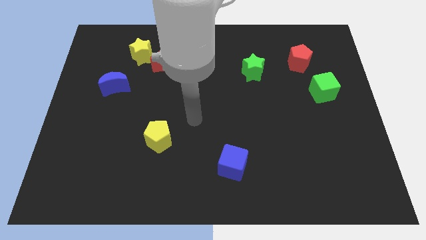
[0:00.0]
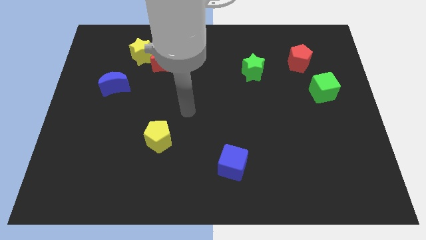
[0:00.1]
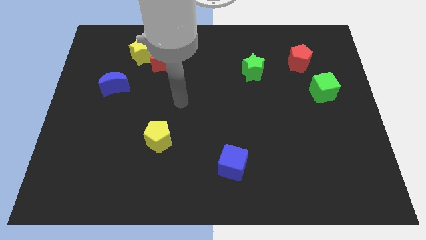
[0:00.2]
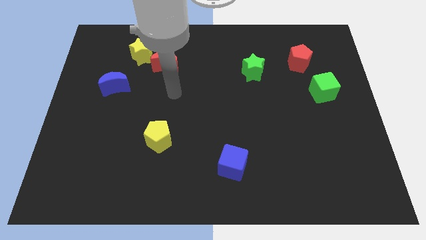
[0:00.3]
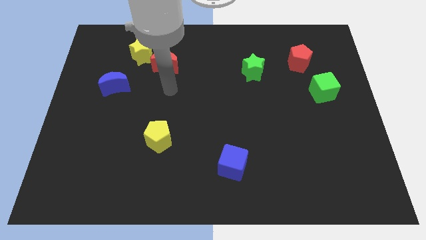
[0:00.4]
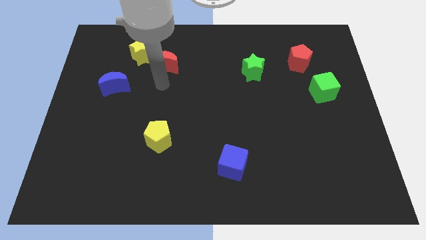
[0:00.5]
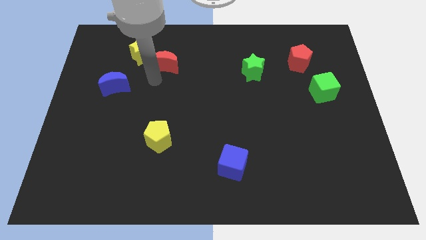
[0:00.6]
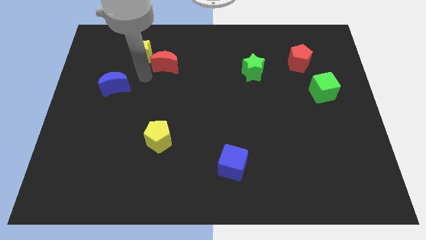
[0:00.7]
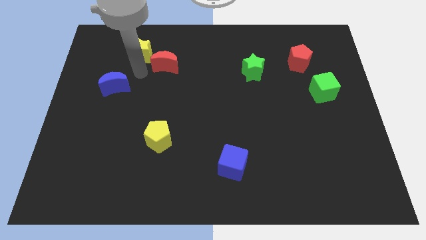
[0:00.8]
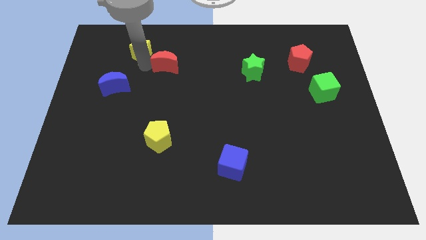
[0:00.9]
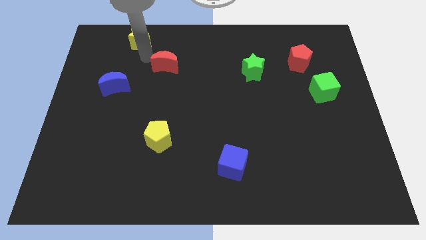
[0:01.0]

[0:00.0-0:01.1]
move the red moon away from the yellow star

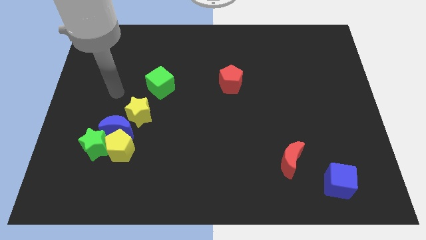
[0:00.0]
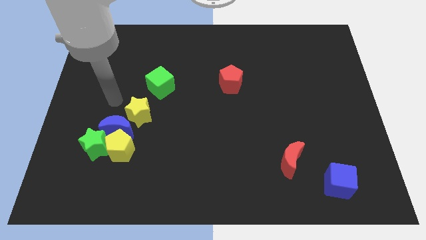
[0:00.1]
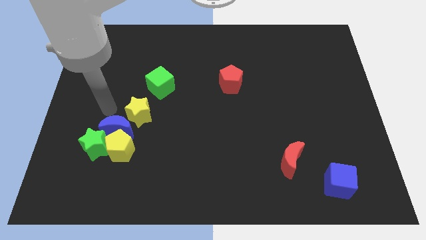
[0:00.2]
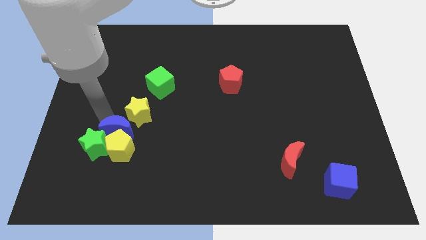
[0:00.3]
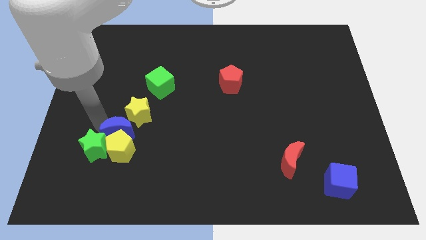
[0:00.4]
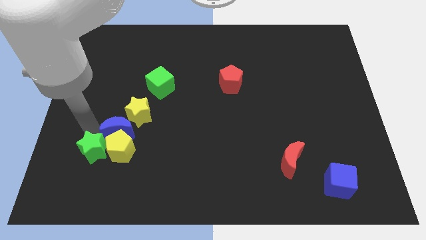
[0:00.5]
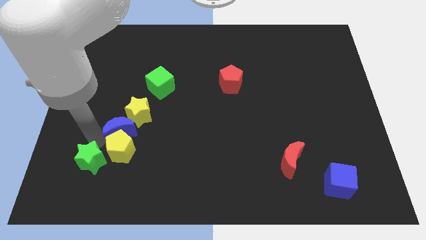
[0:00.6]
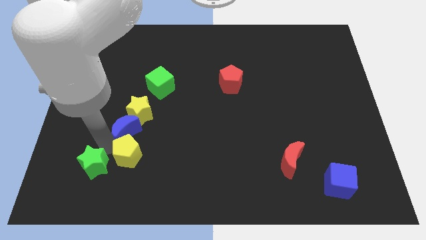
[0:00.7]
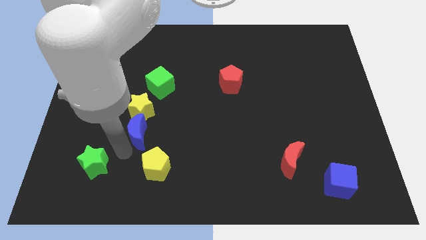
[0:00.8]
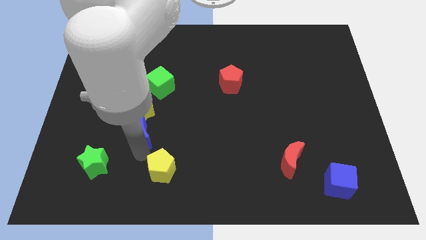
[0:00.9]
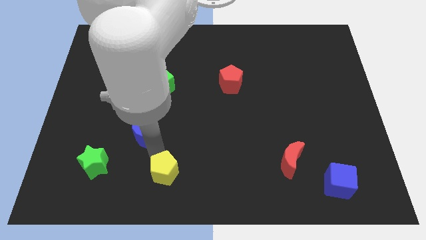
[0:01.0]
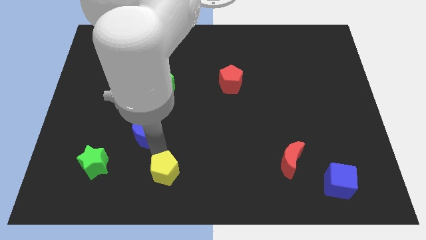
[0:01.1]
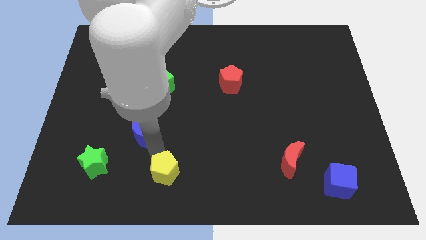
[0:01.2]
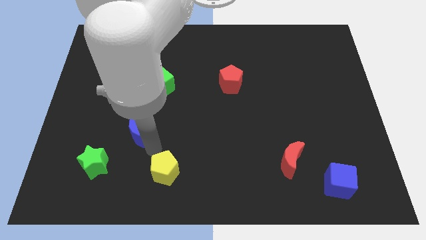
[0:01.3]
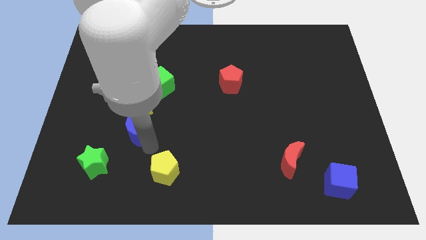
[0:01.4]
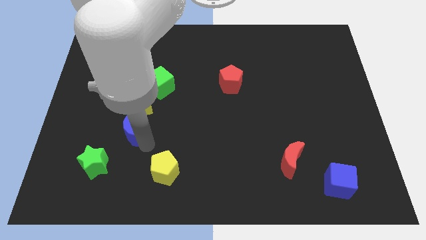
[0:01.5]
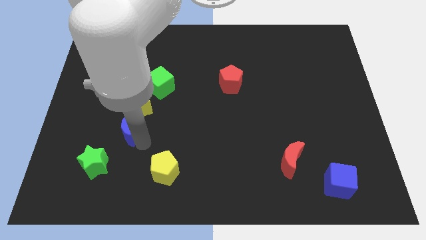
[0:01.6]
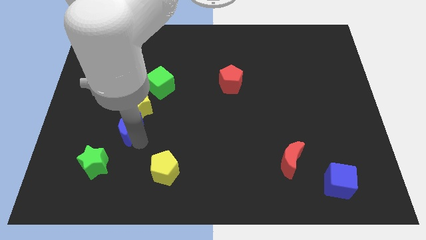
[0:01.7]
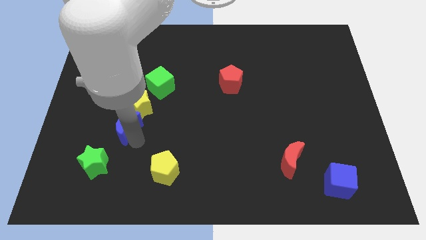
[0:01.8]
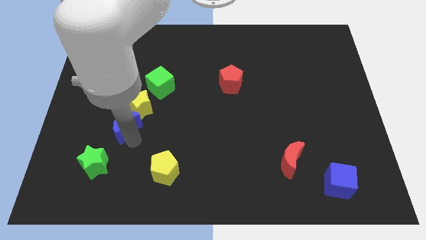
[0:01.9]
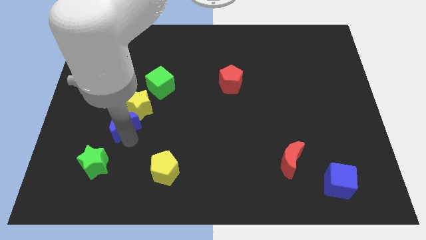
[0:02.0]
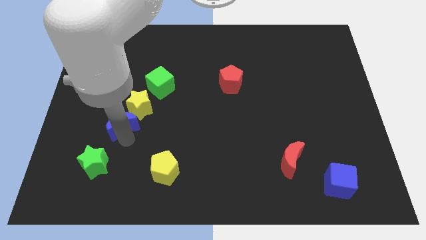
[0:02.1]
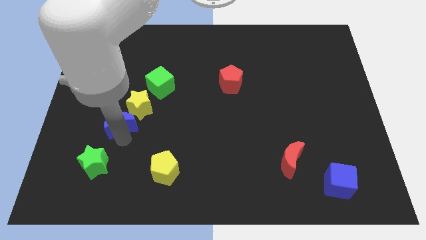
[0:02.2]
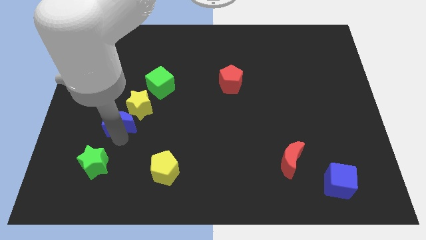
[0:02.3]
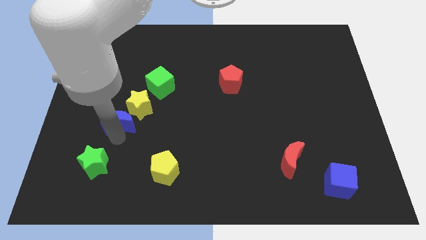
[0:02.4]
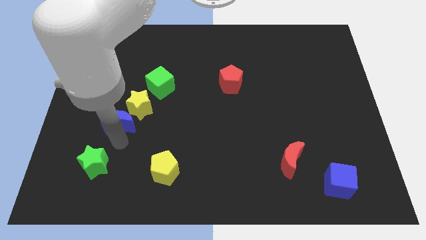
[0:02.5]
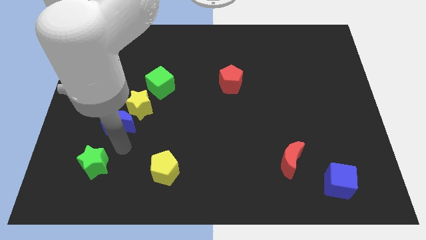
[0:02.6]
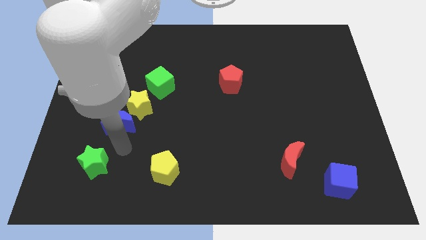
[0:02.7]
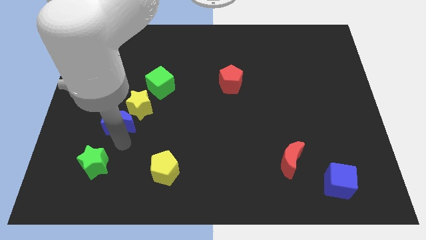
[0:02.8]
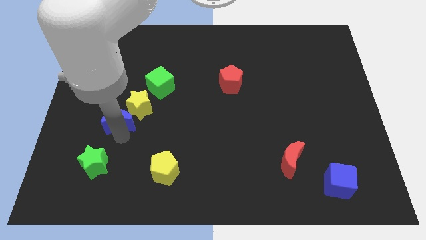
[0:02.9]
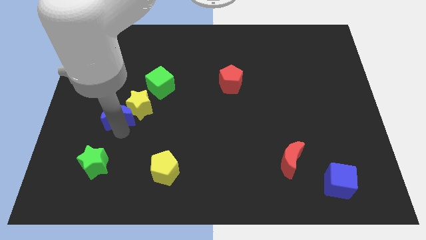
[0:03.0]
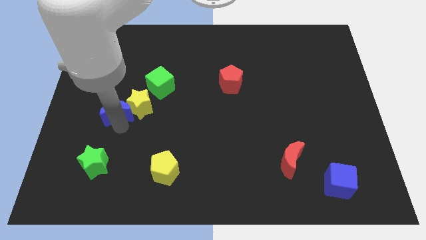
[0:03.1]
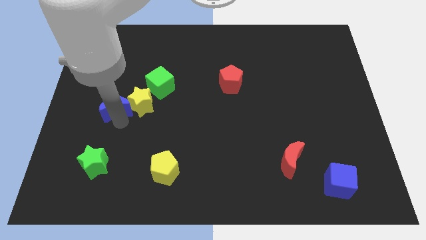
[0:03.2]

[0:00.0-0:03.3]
pull the blue moon apart from the yellow pentagon, yellow star, and green star

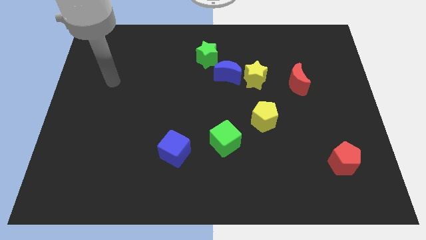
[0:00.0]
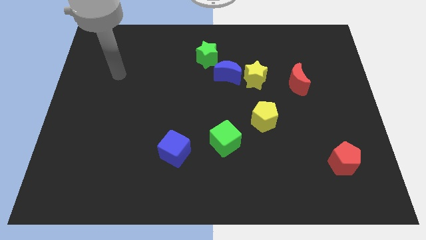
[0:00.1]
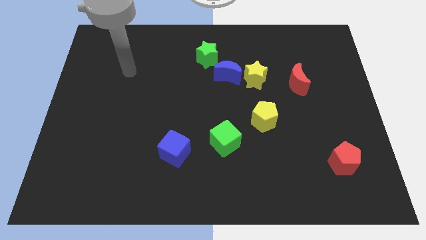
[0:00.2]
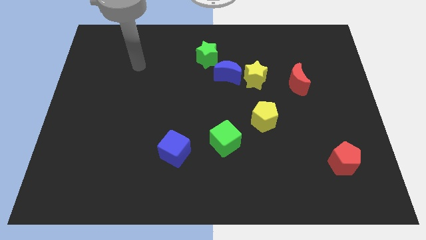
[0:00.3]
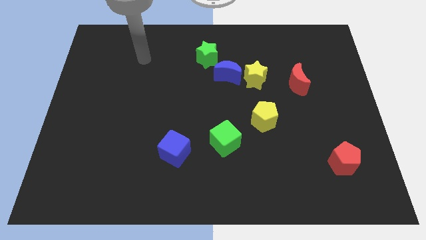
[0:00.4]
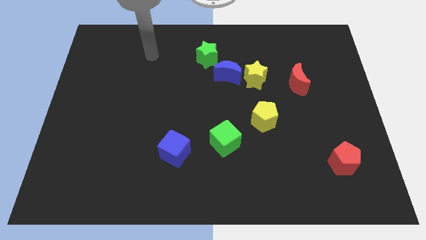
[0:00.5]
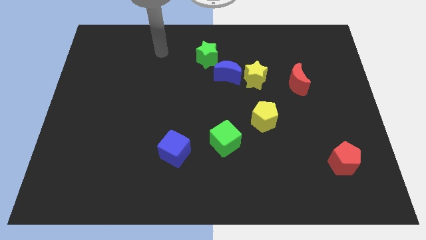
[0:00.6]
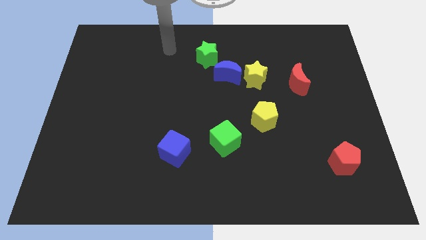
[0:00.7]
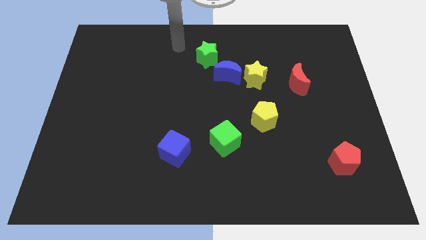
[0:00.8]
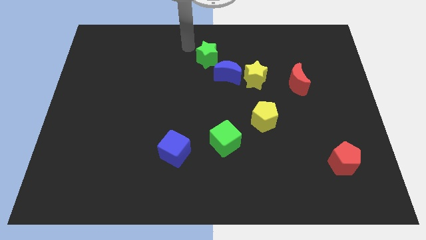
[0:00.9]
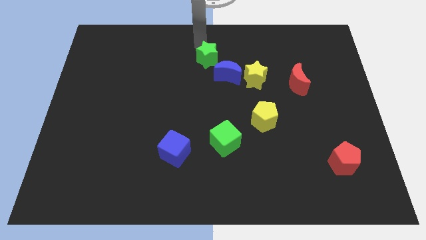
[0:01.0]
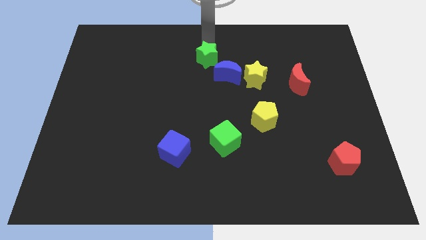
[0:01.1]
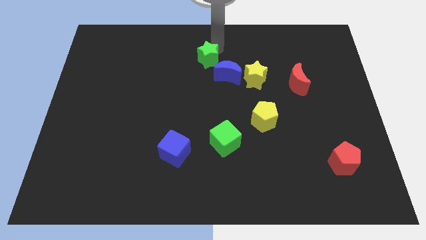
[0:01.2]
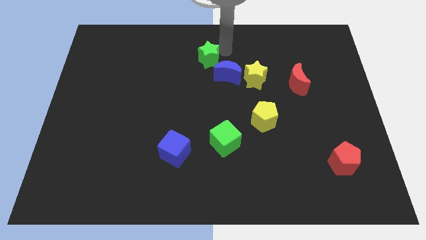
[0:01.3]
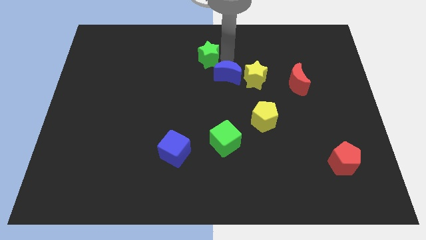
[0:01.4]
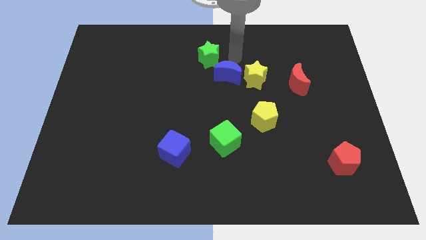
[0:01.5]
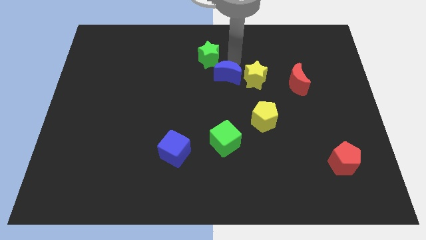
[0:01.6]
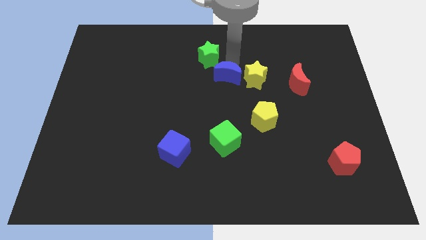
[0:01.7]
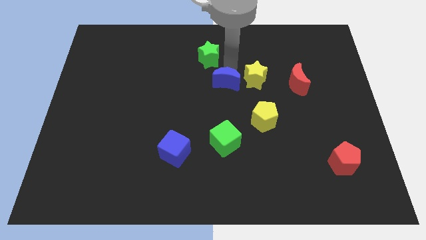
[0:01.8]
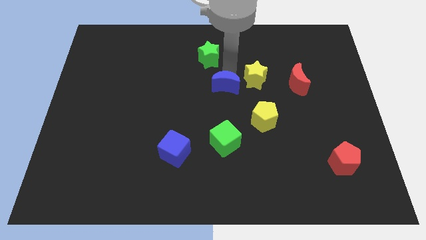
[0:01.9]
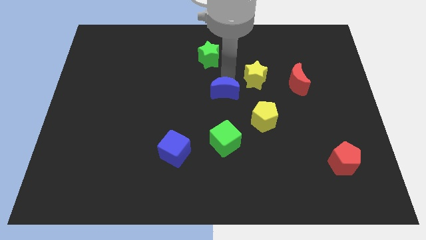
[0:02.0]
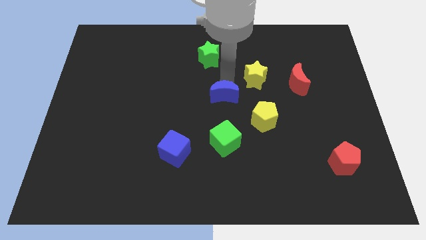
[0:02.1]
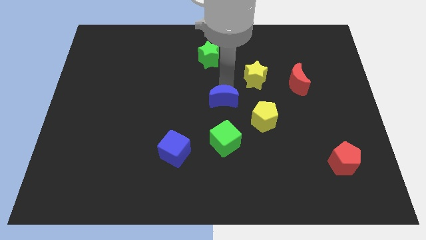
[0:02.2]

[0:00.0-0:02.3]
move the blue moon away from the yellow star and green star

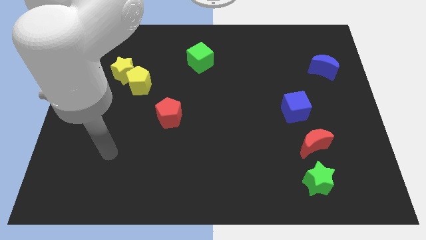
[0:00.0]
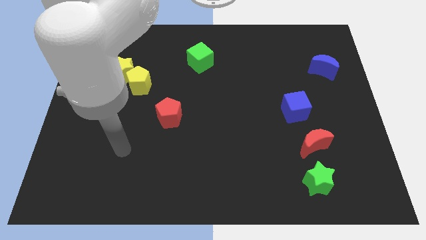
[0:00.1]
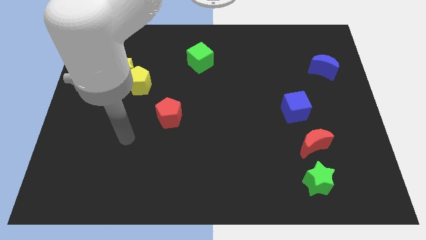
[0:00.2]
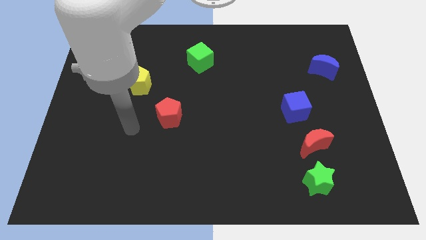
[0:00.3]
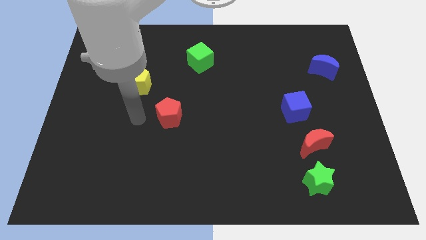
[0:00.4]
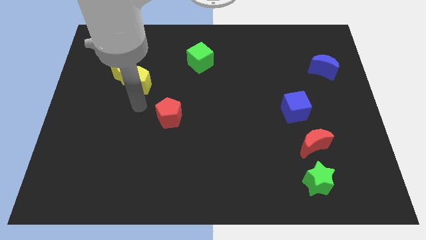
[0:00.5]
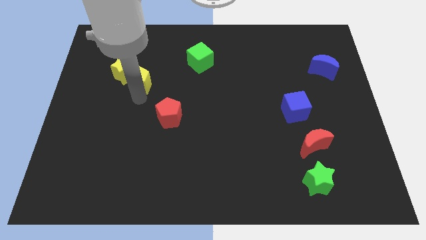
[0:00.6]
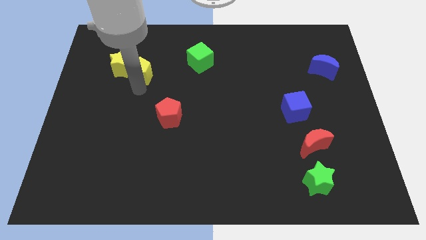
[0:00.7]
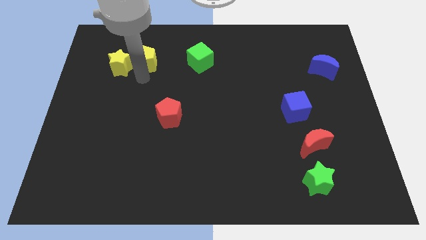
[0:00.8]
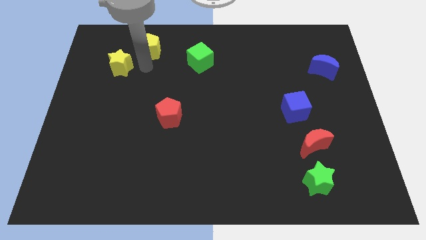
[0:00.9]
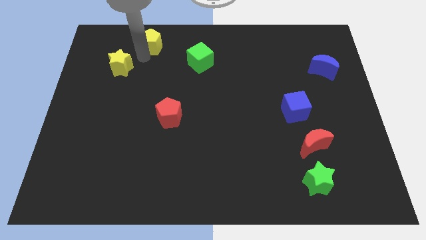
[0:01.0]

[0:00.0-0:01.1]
pull the yellow star apart from the yellow pentagon

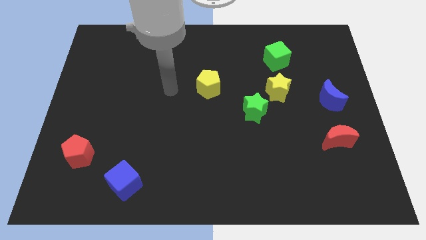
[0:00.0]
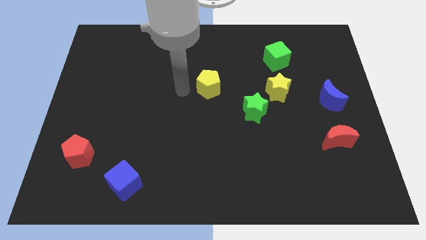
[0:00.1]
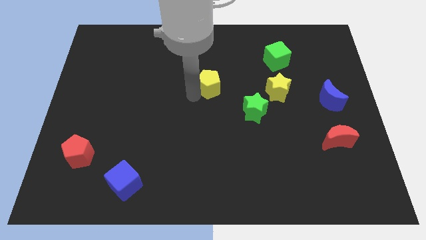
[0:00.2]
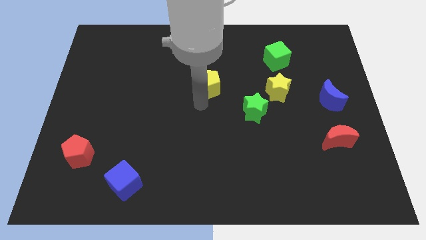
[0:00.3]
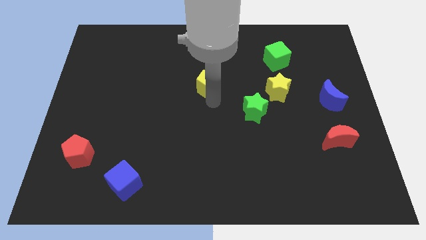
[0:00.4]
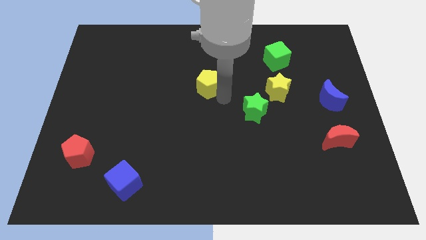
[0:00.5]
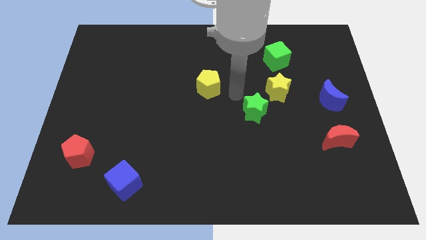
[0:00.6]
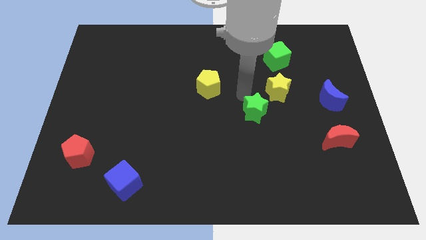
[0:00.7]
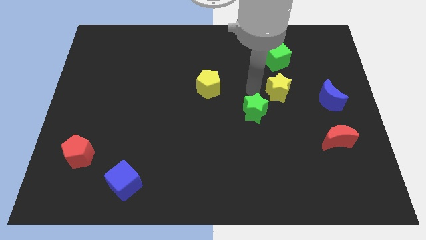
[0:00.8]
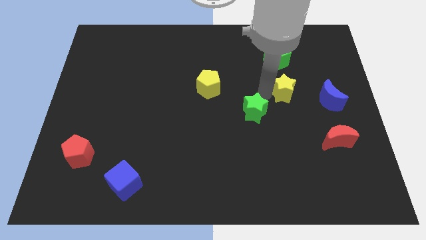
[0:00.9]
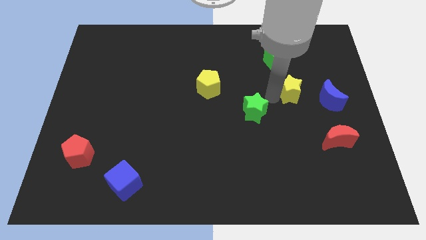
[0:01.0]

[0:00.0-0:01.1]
move the green star away from the yellow star

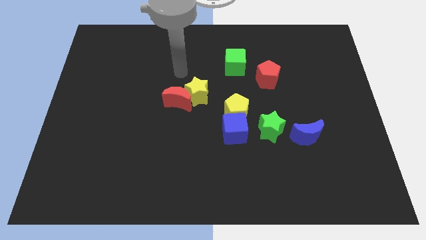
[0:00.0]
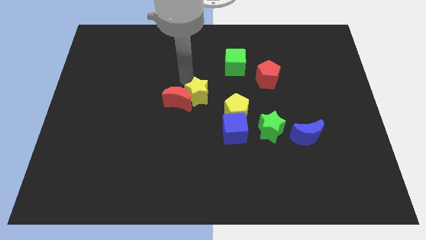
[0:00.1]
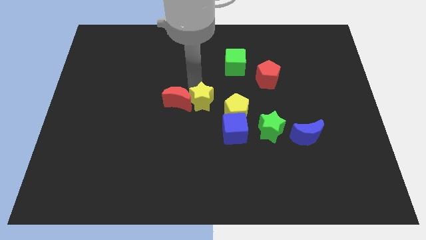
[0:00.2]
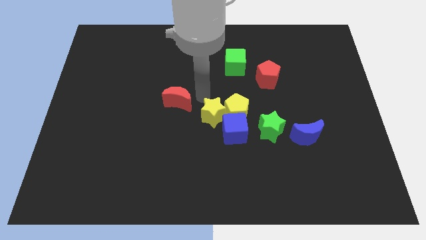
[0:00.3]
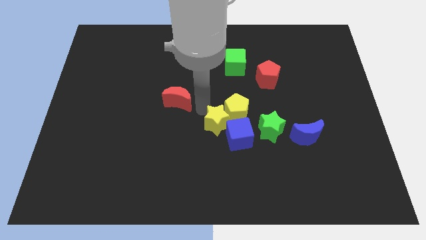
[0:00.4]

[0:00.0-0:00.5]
separate the red moon from the yellow star

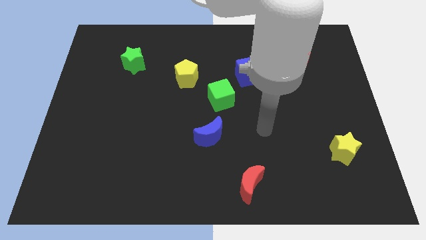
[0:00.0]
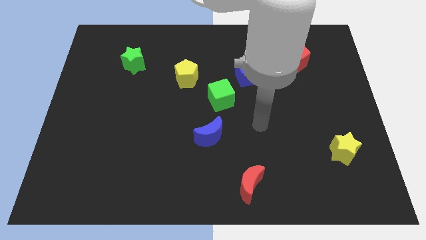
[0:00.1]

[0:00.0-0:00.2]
move the blue cube away from the green cube
